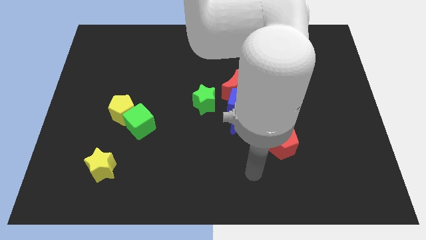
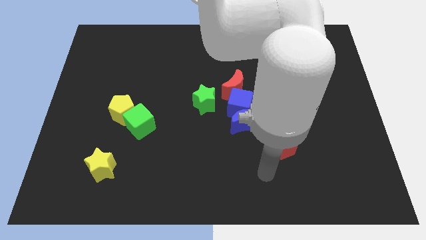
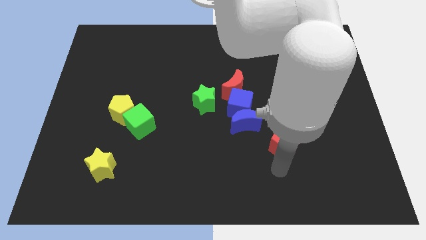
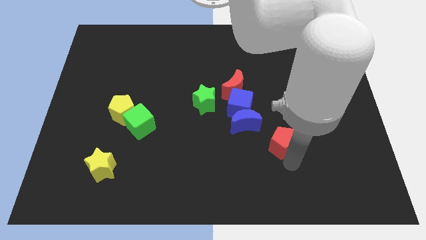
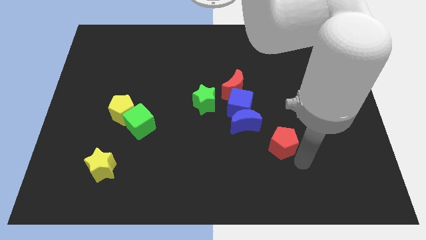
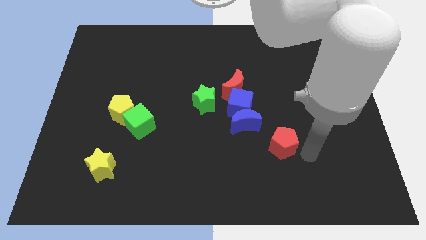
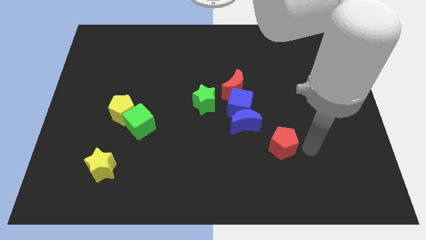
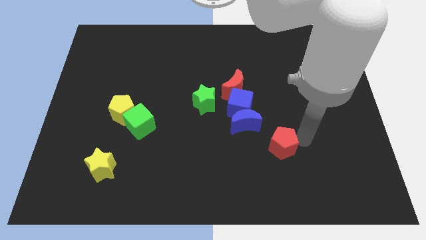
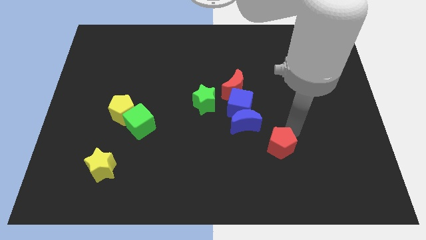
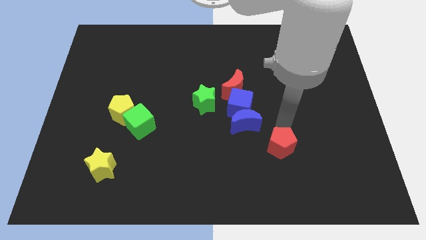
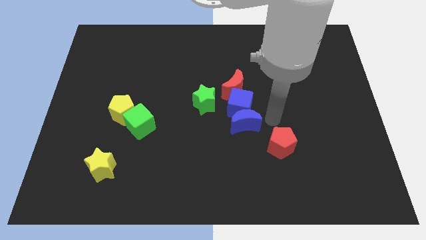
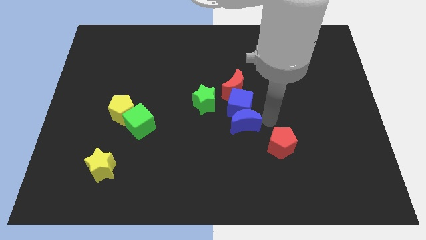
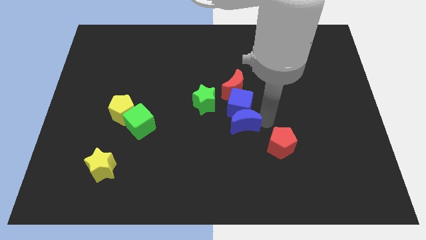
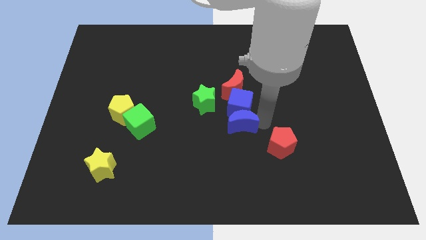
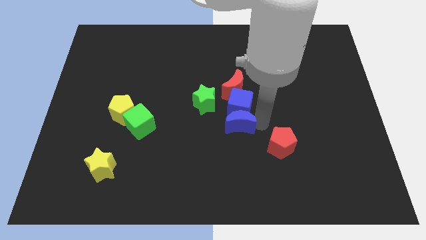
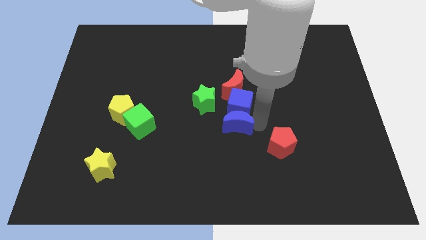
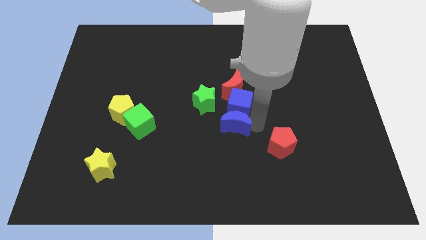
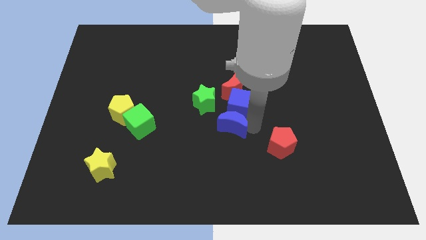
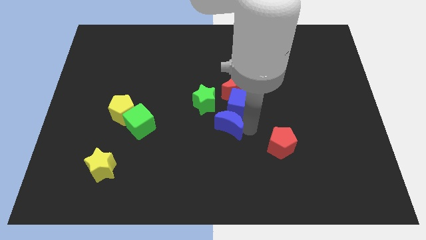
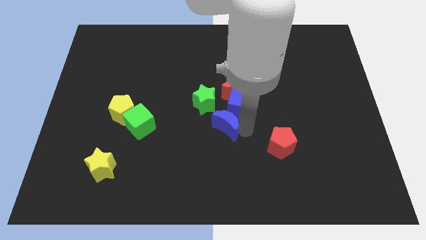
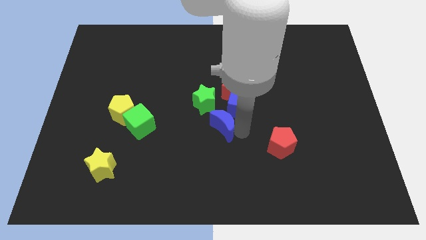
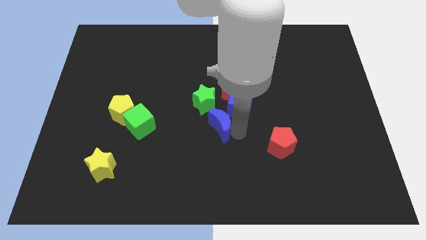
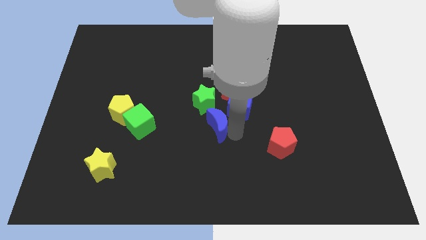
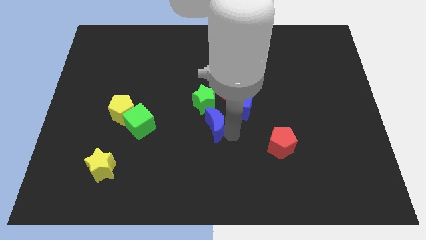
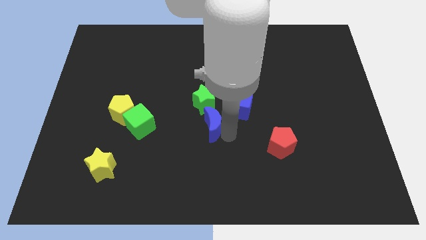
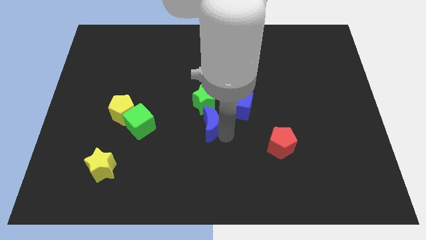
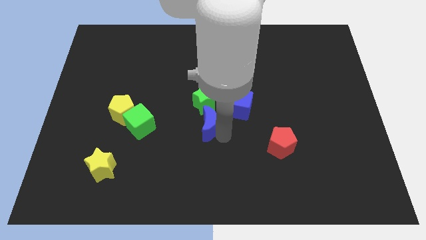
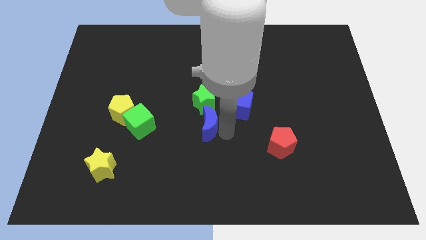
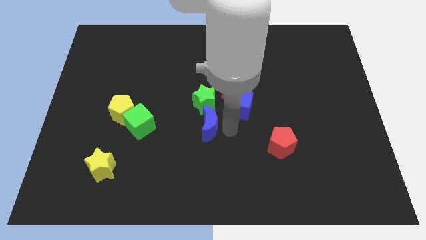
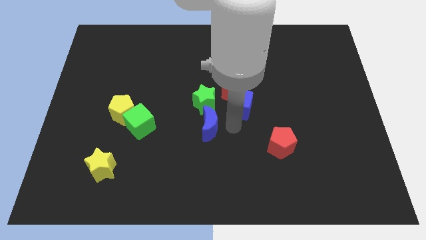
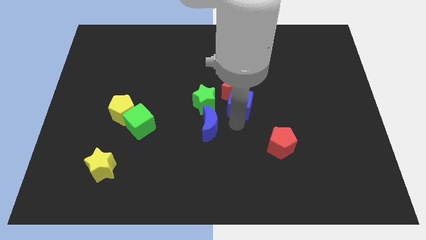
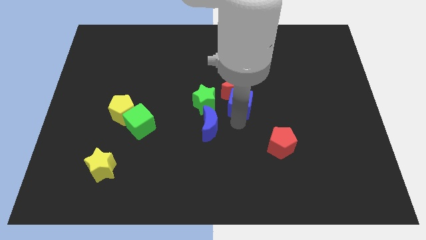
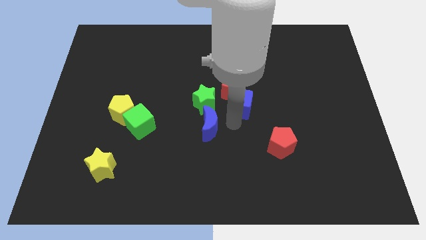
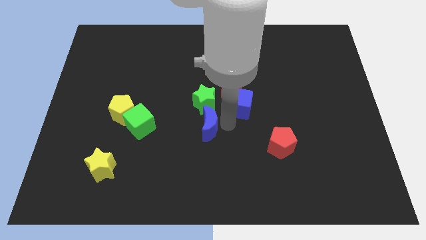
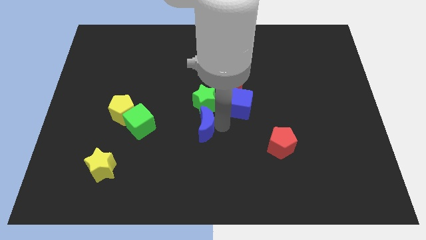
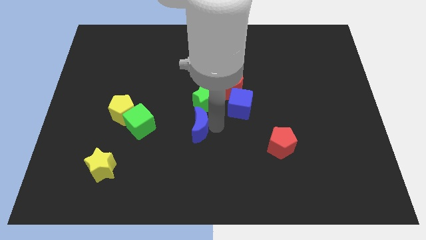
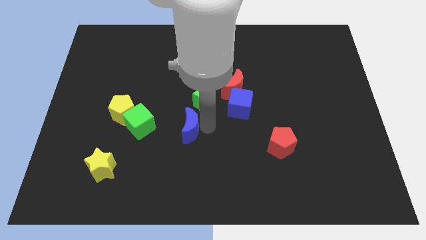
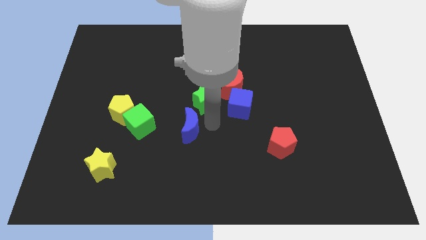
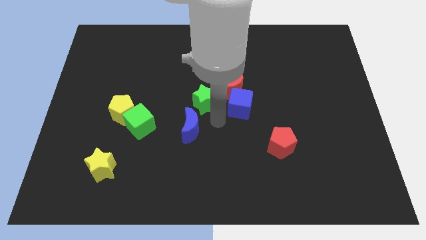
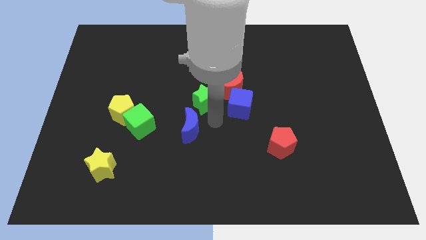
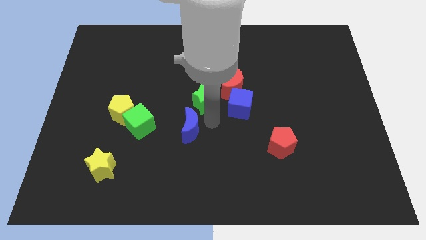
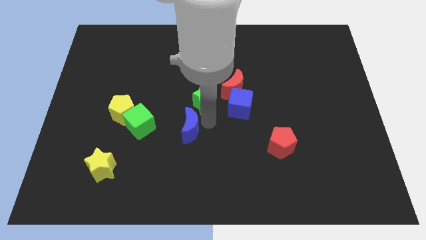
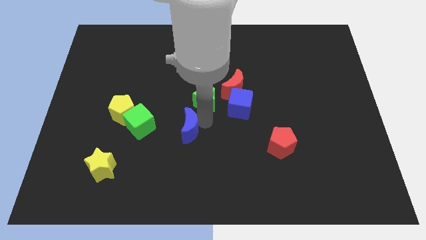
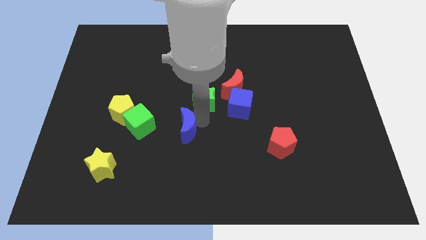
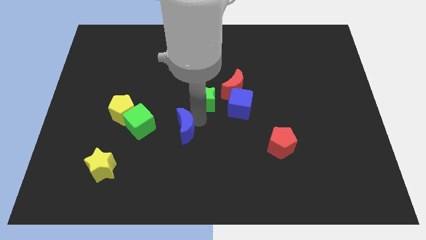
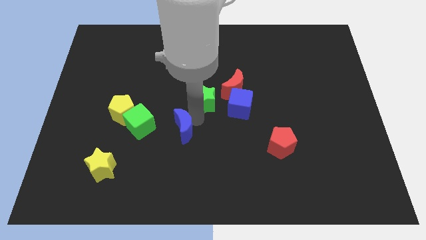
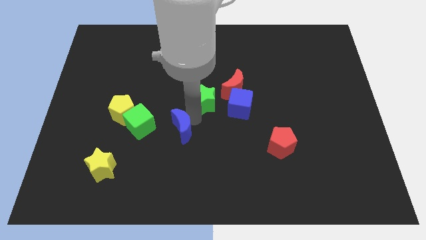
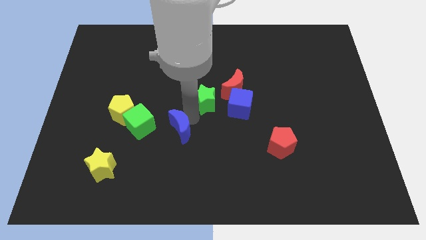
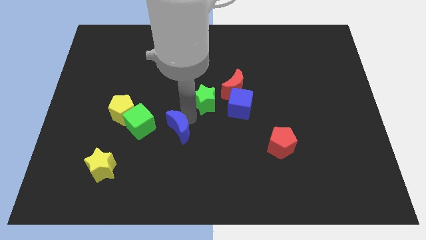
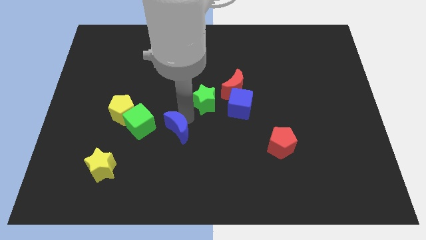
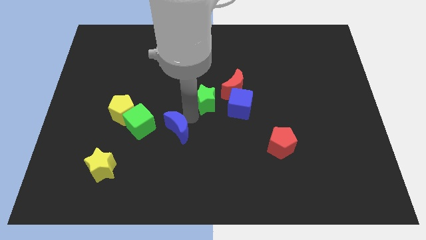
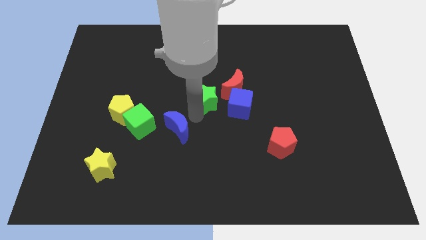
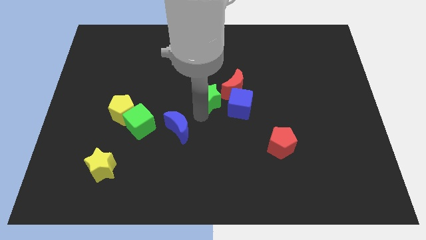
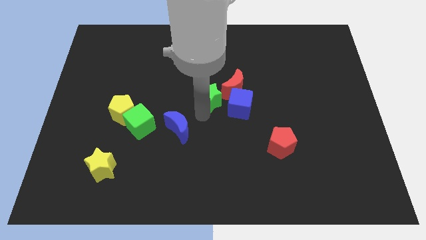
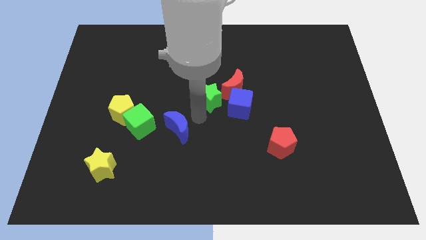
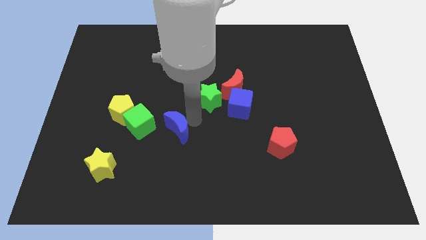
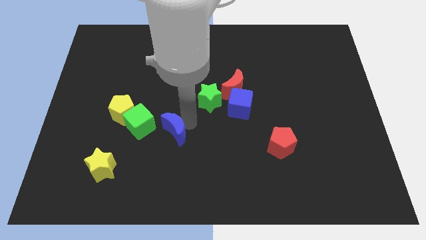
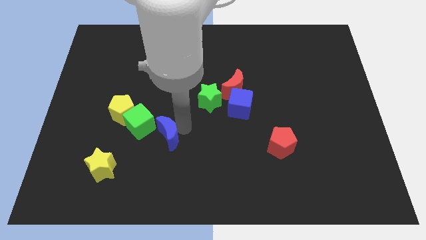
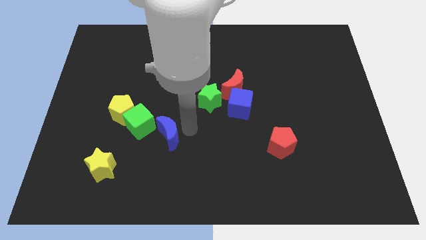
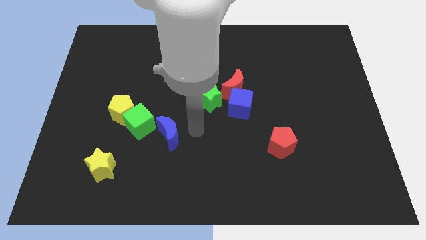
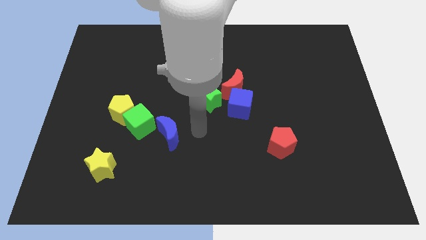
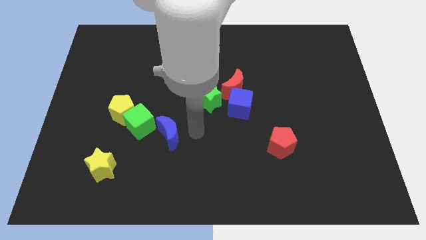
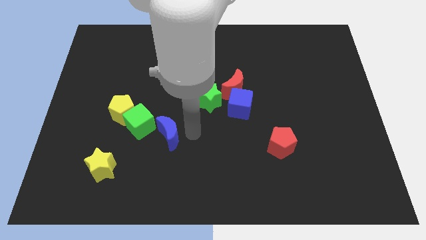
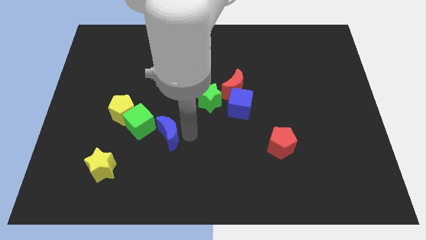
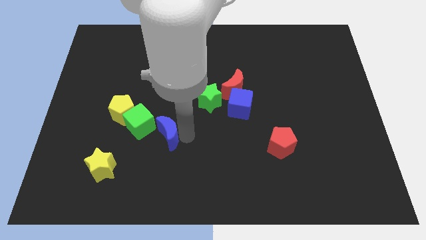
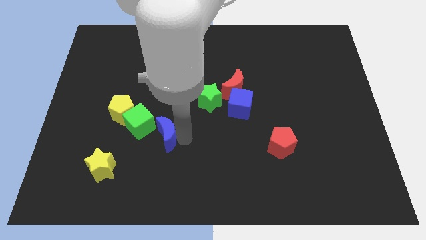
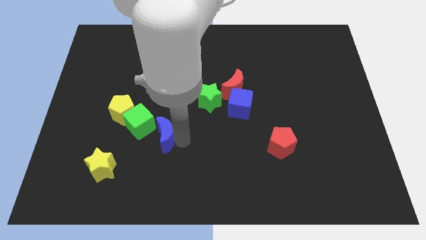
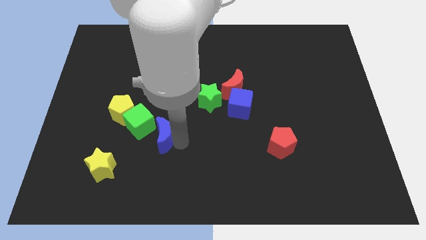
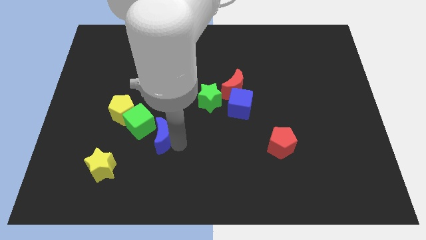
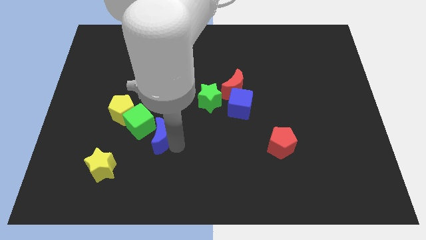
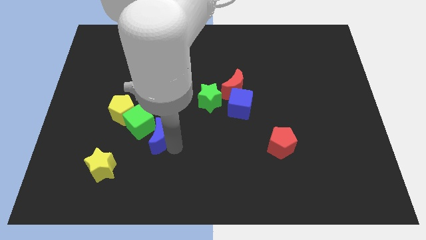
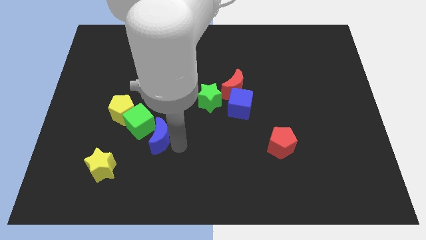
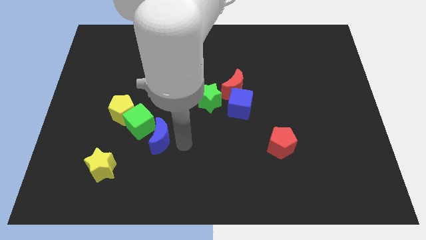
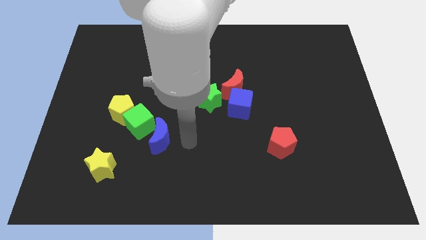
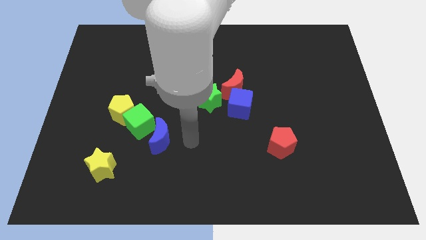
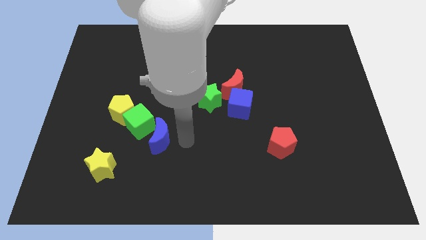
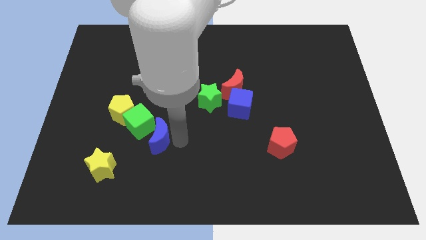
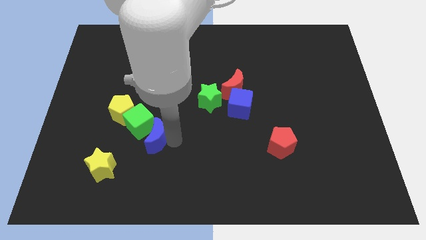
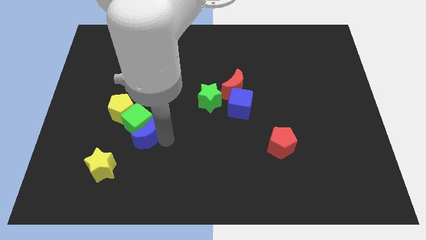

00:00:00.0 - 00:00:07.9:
slide the blue moon left
